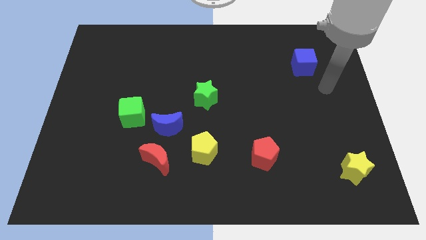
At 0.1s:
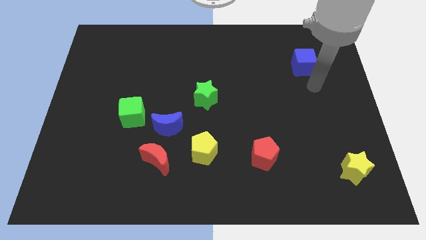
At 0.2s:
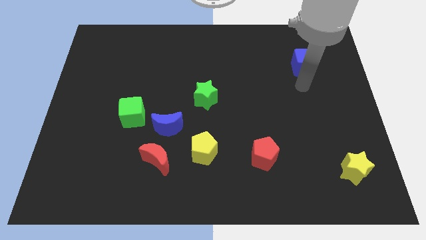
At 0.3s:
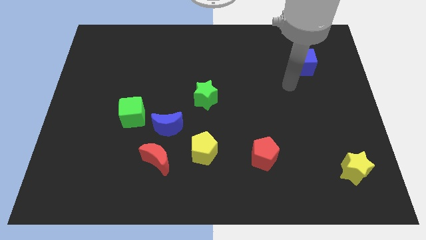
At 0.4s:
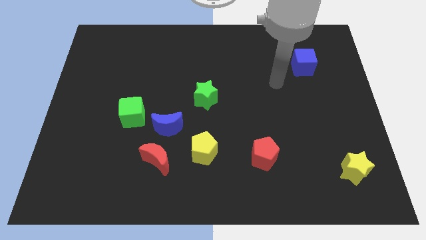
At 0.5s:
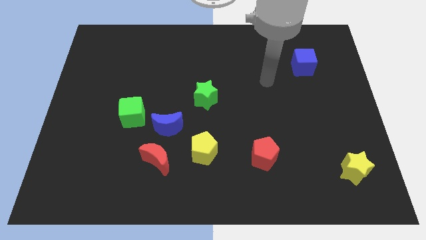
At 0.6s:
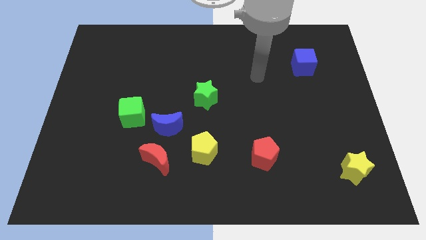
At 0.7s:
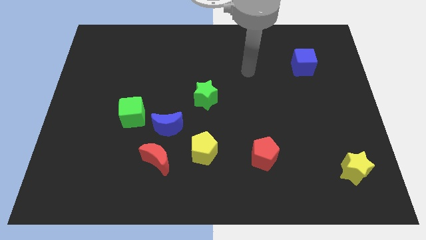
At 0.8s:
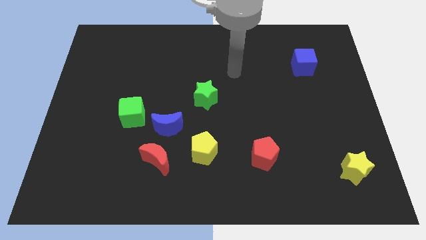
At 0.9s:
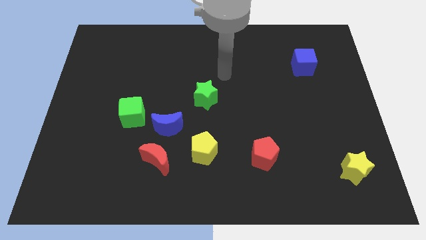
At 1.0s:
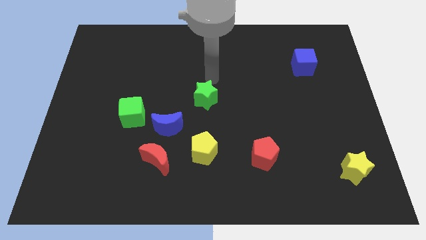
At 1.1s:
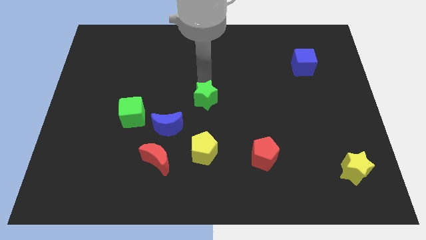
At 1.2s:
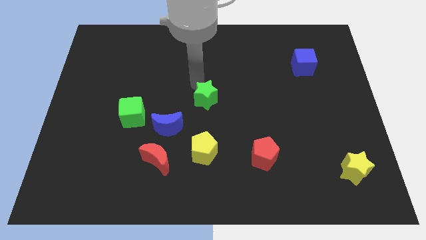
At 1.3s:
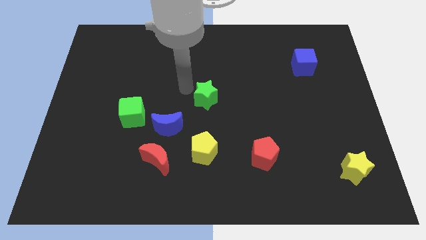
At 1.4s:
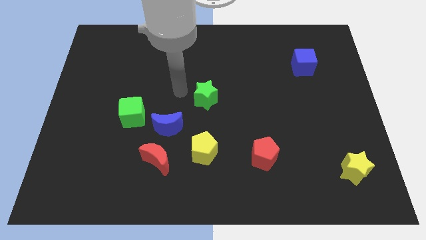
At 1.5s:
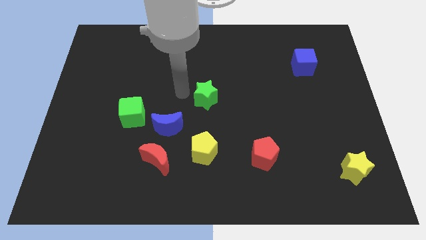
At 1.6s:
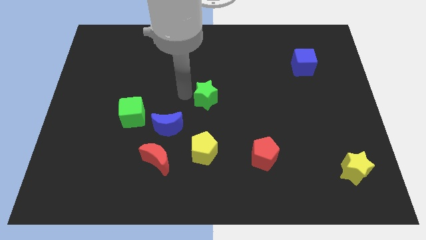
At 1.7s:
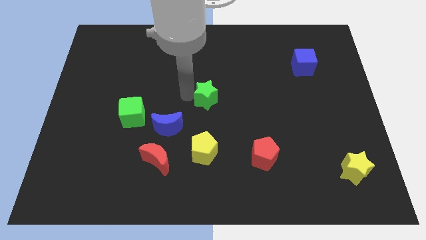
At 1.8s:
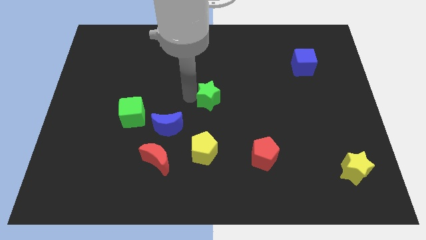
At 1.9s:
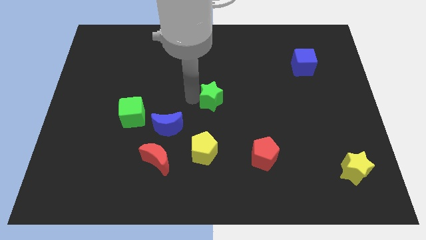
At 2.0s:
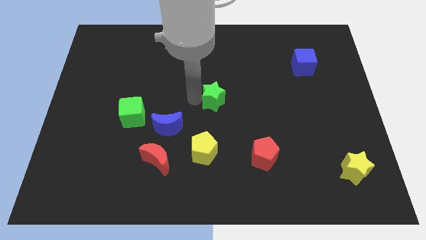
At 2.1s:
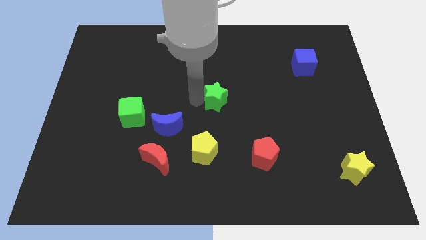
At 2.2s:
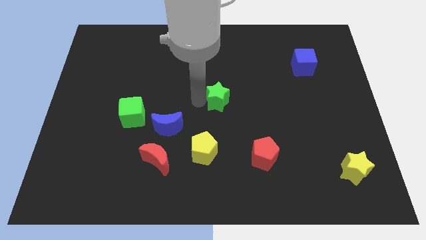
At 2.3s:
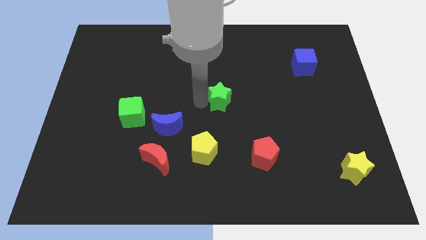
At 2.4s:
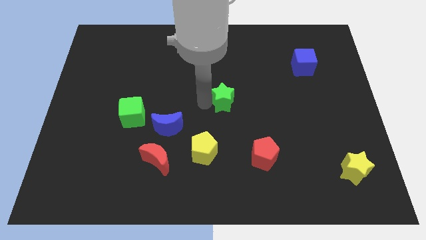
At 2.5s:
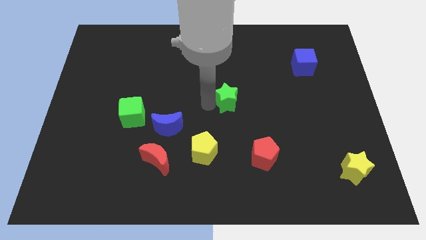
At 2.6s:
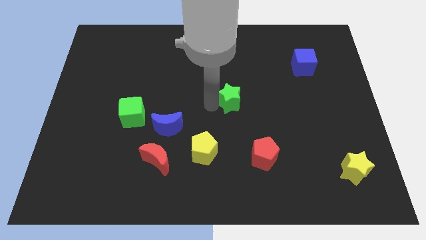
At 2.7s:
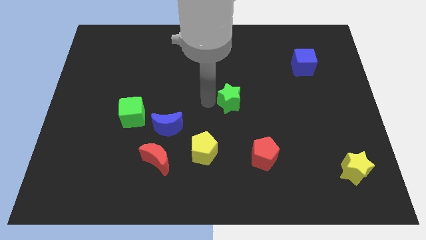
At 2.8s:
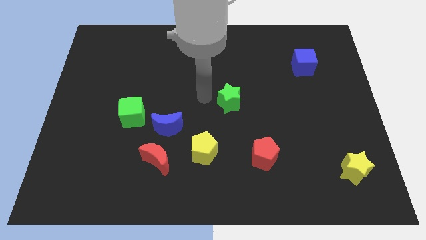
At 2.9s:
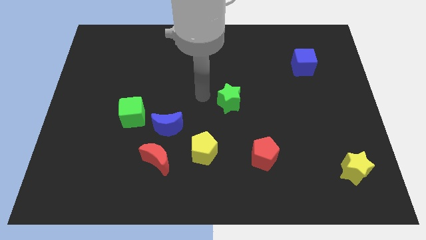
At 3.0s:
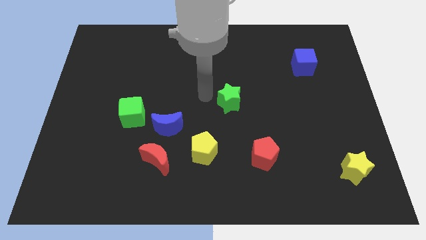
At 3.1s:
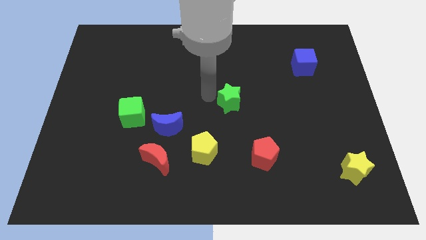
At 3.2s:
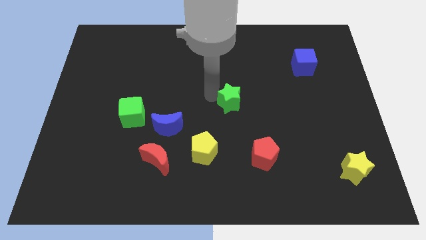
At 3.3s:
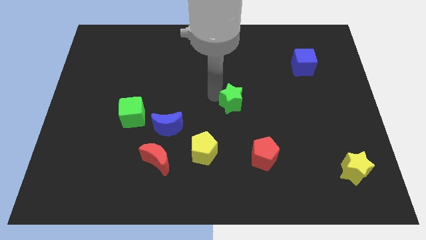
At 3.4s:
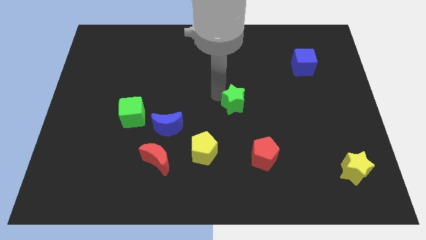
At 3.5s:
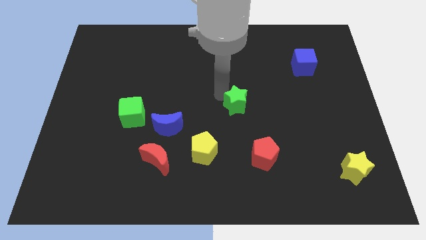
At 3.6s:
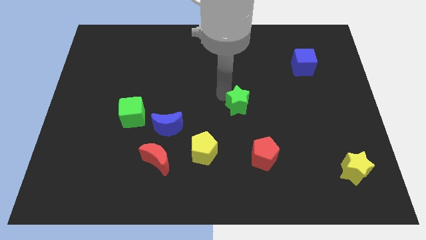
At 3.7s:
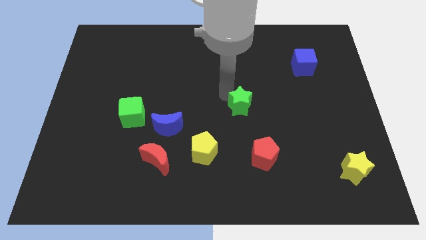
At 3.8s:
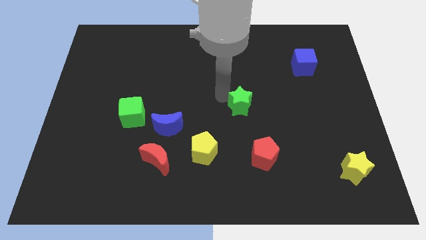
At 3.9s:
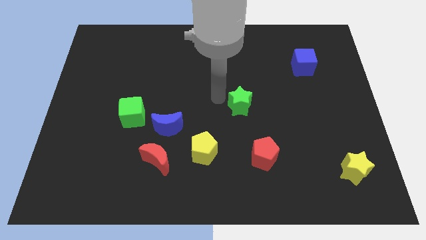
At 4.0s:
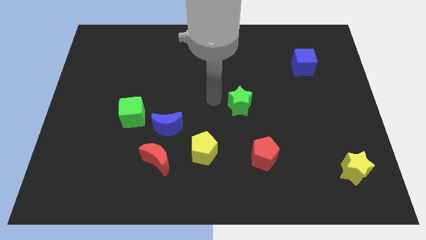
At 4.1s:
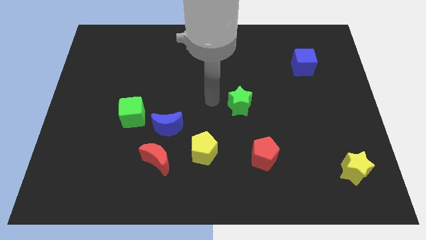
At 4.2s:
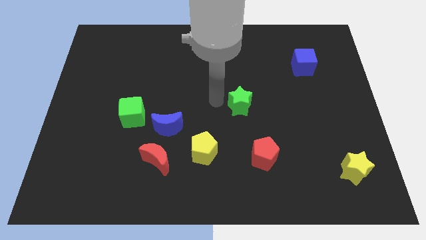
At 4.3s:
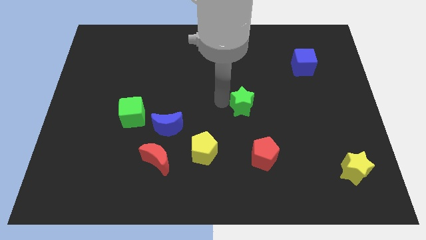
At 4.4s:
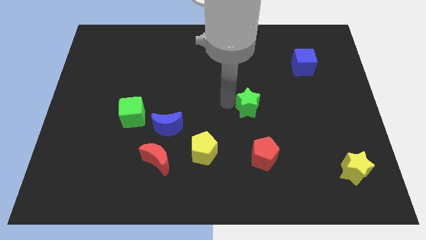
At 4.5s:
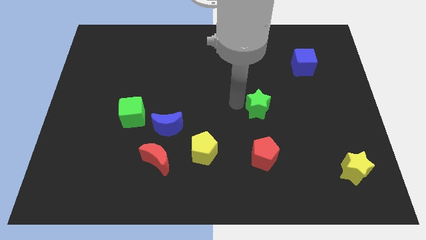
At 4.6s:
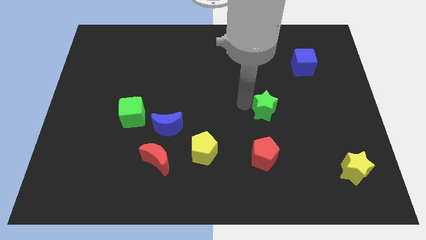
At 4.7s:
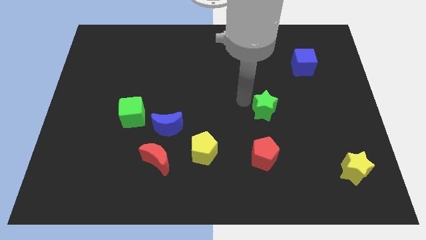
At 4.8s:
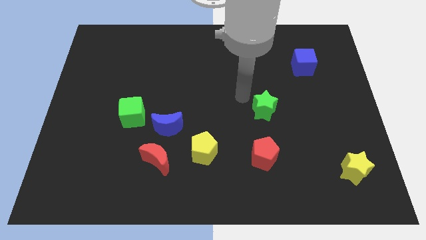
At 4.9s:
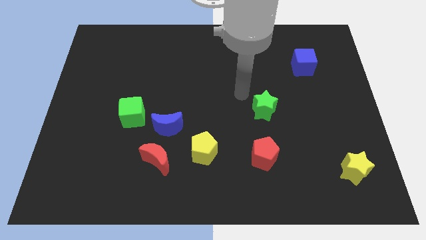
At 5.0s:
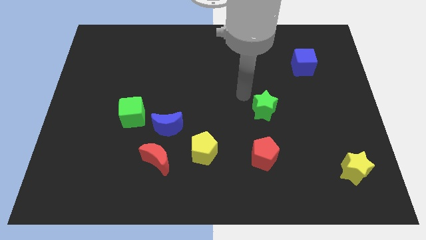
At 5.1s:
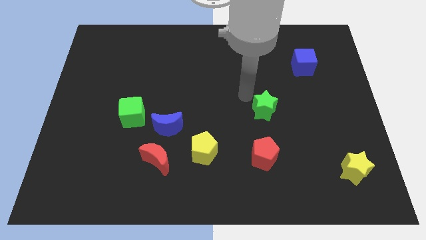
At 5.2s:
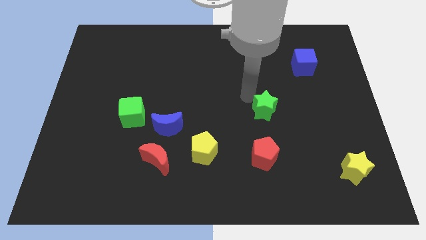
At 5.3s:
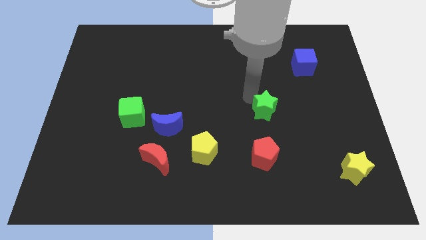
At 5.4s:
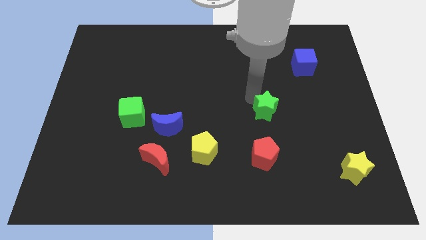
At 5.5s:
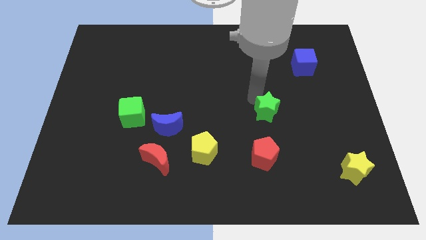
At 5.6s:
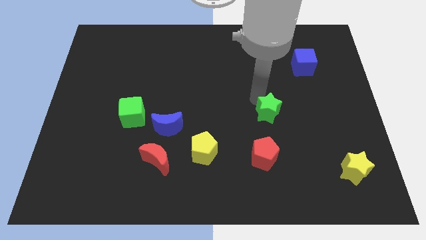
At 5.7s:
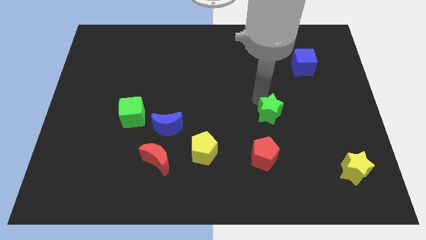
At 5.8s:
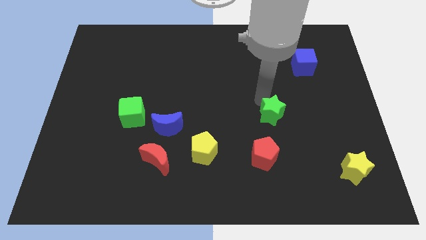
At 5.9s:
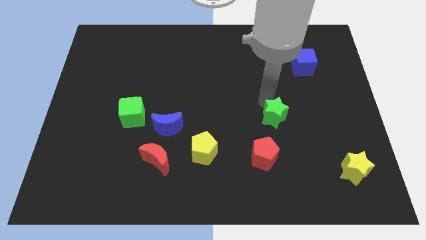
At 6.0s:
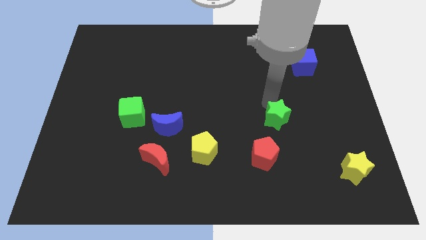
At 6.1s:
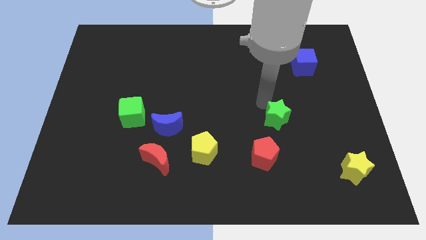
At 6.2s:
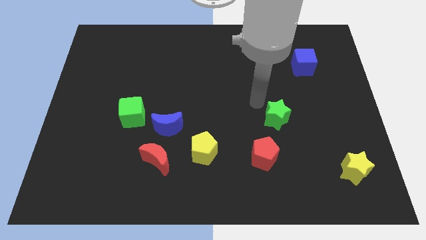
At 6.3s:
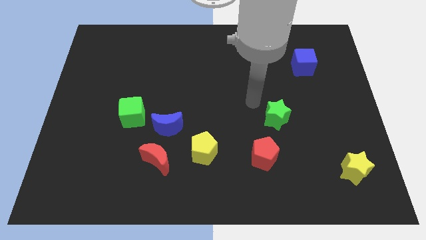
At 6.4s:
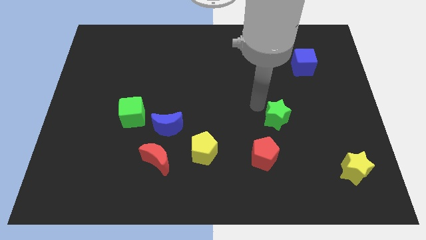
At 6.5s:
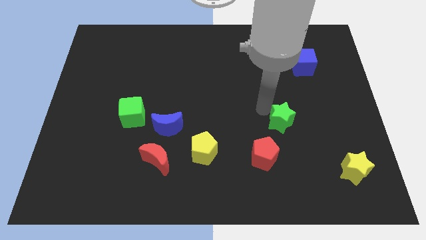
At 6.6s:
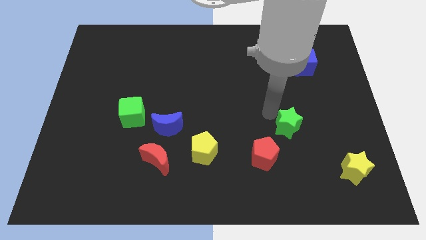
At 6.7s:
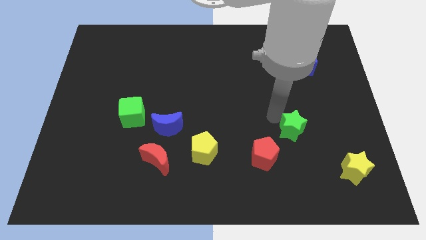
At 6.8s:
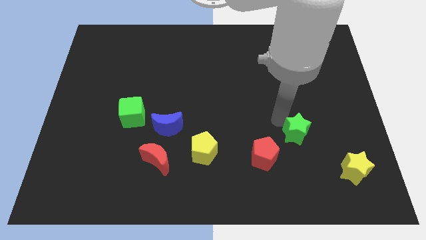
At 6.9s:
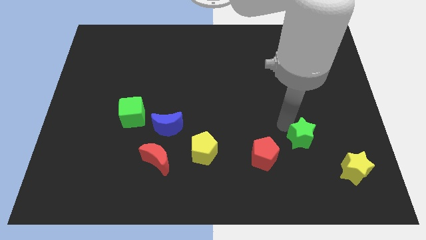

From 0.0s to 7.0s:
push the green star to the top left of the yellow star

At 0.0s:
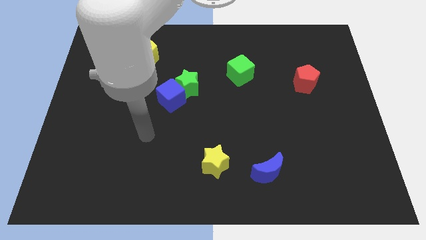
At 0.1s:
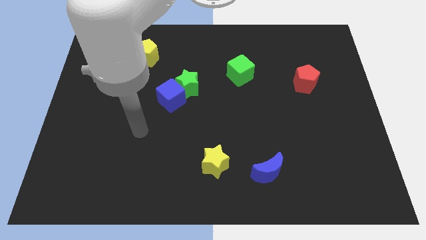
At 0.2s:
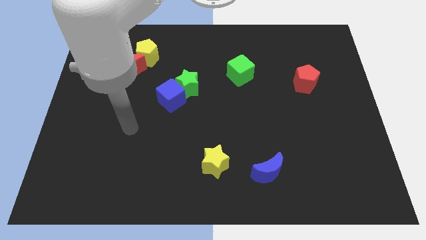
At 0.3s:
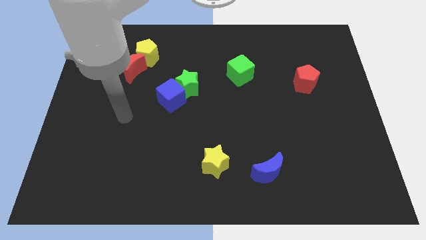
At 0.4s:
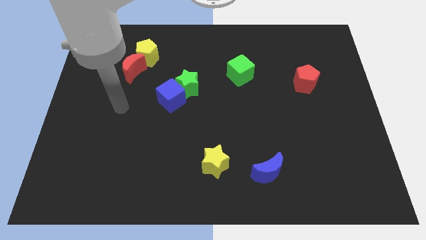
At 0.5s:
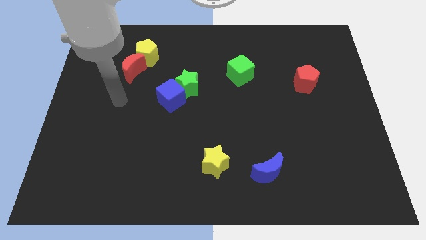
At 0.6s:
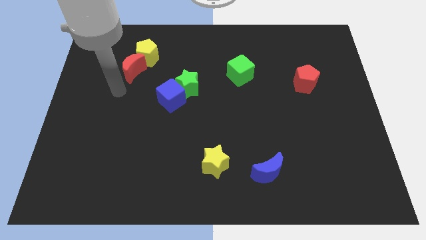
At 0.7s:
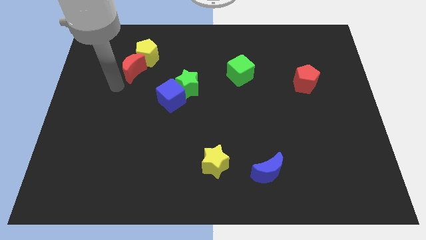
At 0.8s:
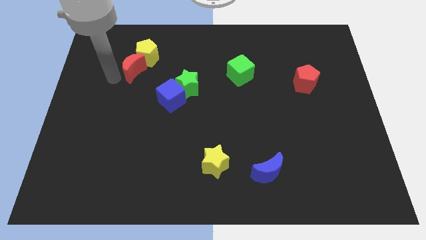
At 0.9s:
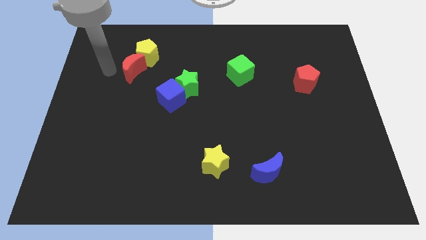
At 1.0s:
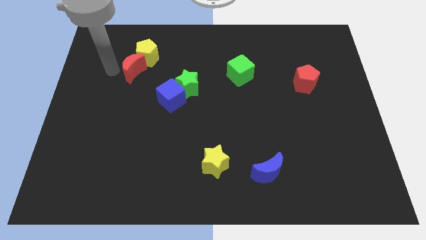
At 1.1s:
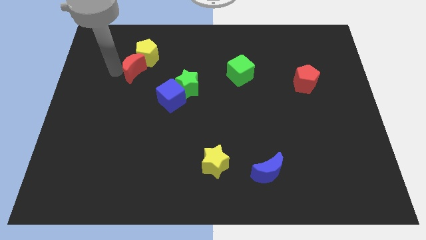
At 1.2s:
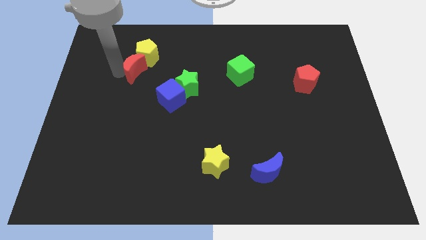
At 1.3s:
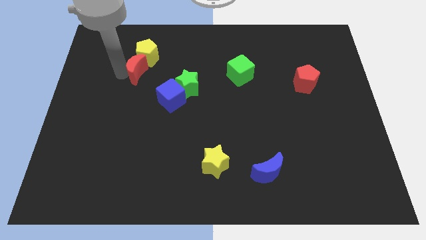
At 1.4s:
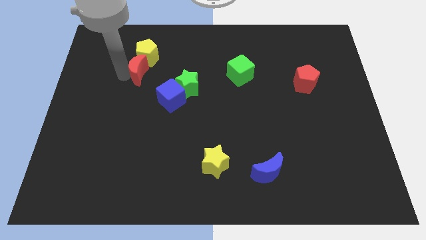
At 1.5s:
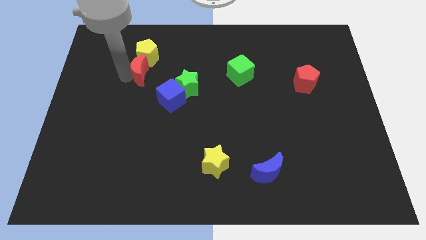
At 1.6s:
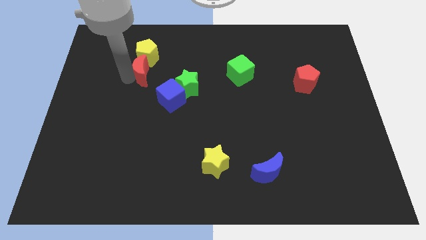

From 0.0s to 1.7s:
push the red moon to the bottom right side of the yellow pentagon
